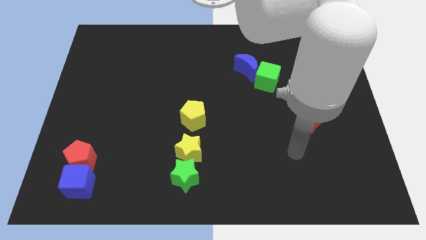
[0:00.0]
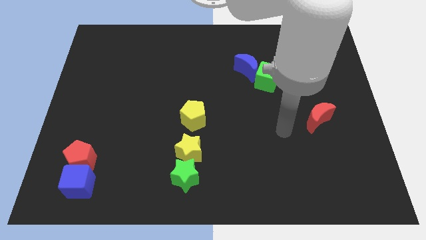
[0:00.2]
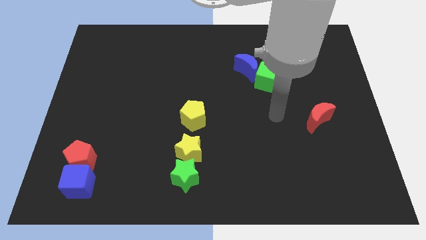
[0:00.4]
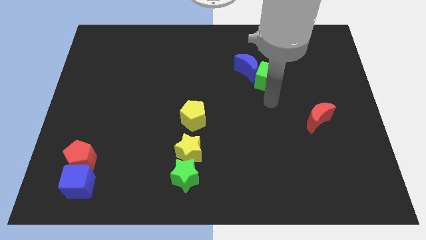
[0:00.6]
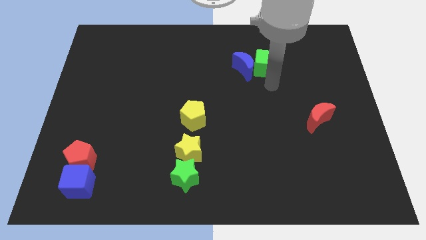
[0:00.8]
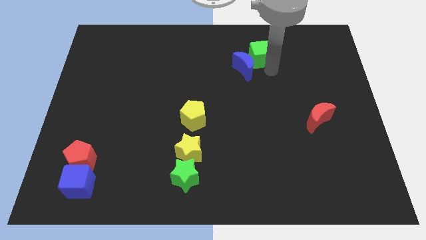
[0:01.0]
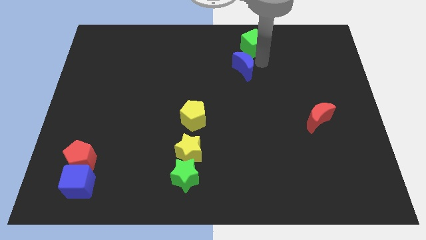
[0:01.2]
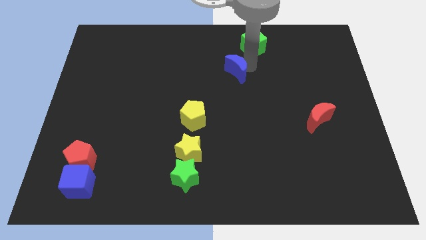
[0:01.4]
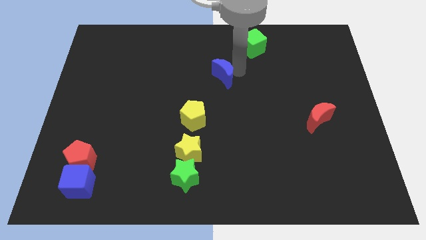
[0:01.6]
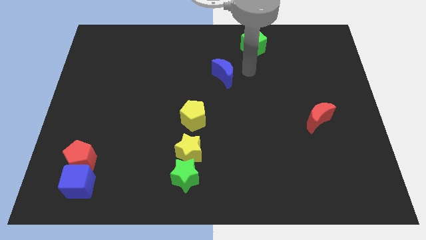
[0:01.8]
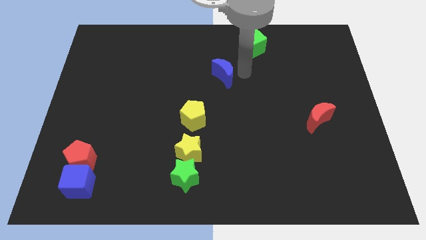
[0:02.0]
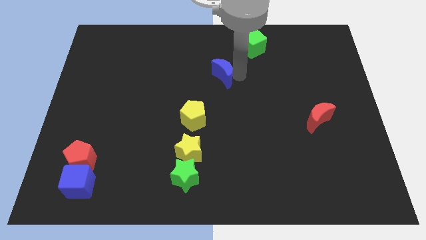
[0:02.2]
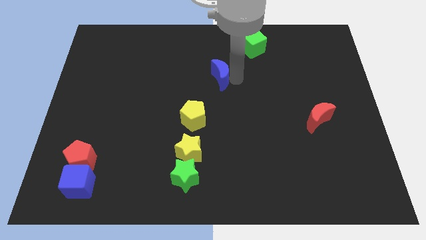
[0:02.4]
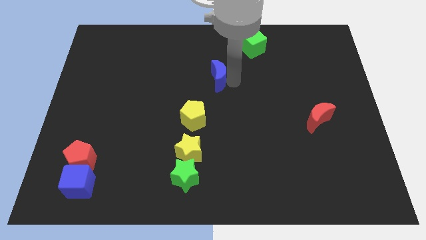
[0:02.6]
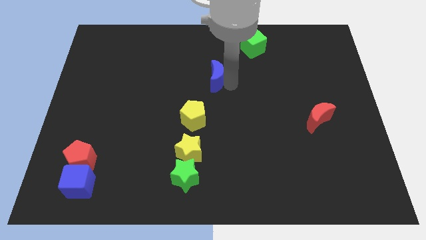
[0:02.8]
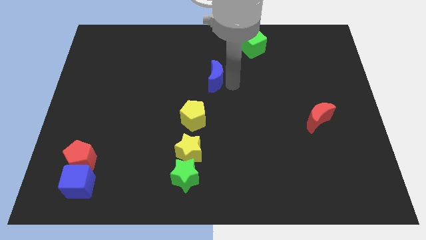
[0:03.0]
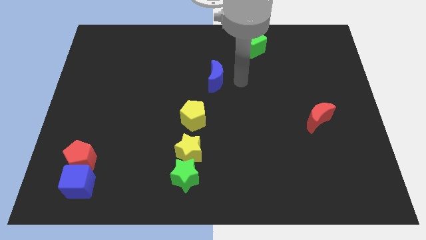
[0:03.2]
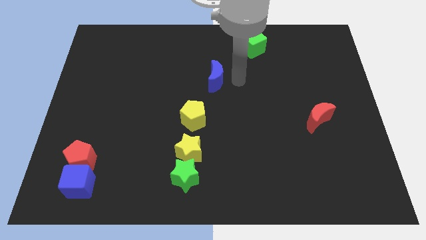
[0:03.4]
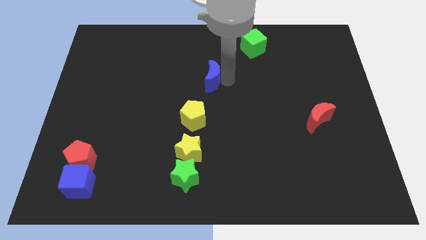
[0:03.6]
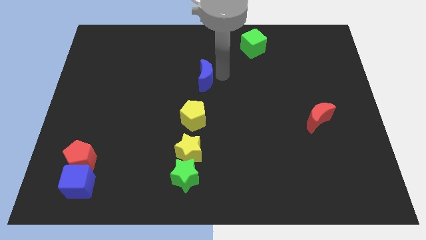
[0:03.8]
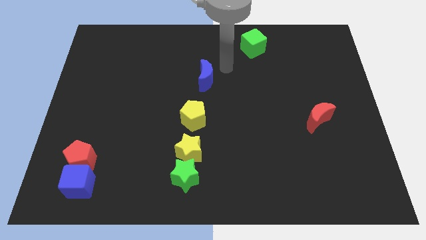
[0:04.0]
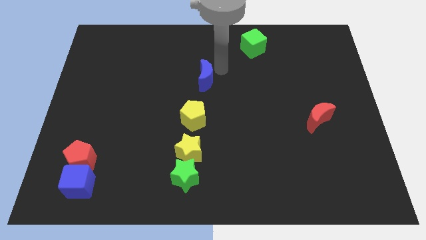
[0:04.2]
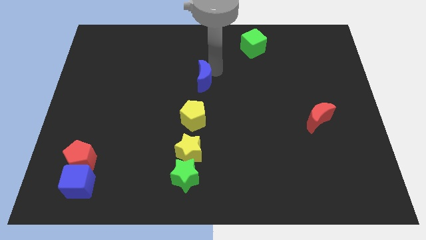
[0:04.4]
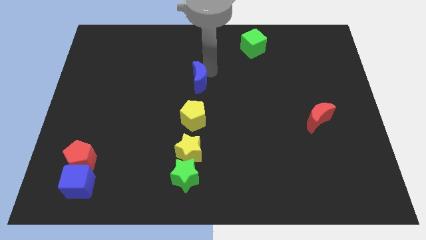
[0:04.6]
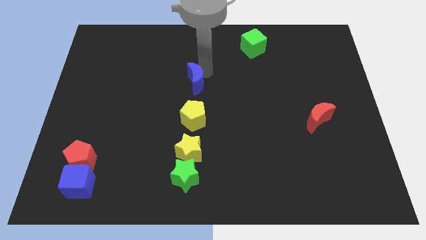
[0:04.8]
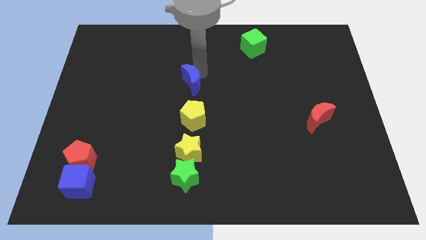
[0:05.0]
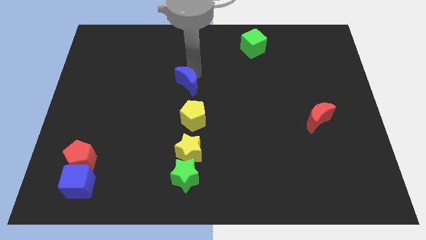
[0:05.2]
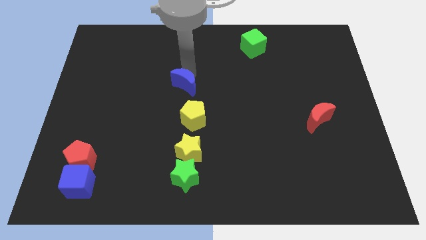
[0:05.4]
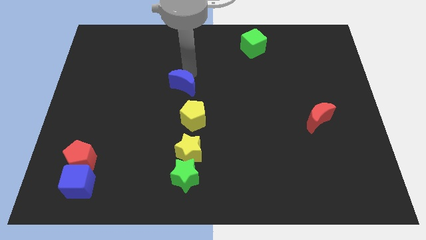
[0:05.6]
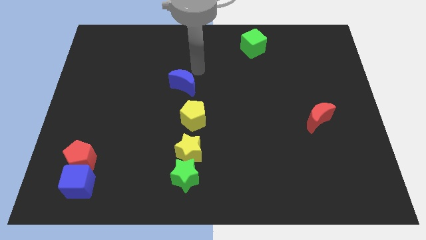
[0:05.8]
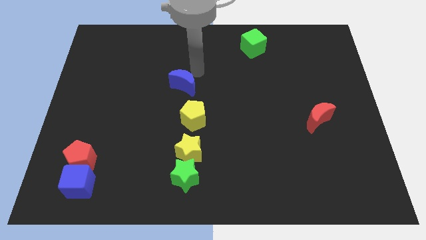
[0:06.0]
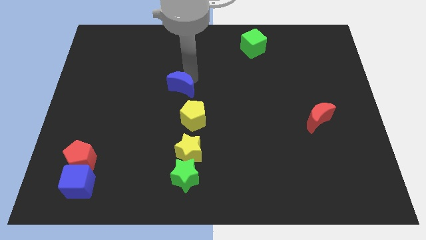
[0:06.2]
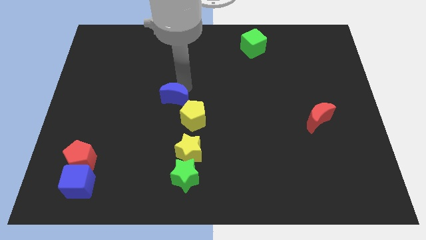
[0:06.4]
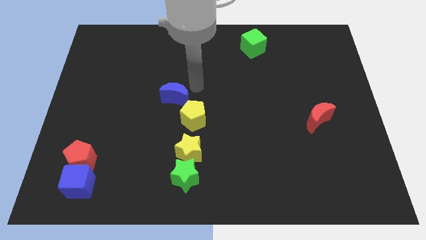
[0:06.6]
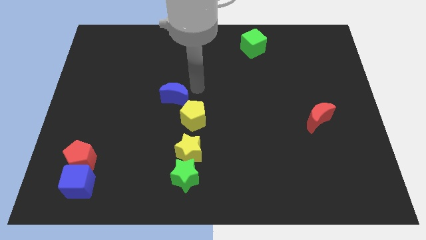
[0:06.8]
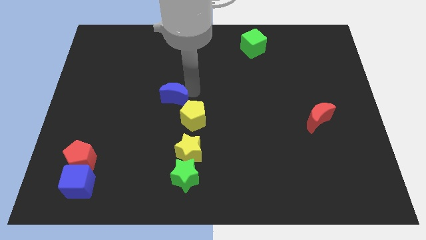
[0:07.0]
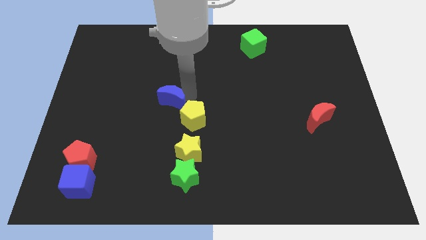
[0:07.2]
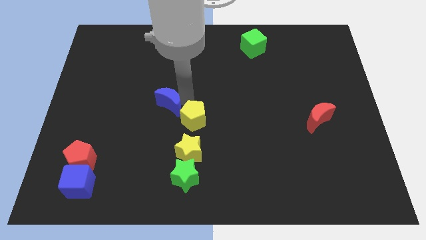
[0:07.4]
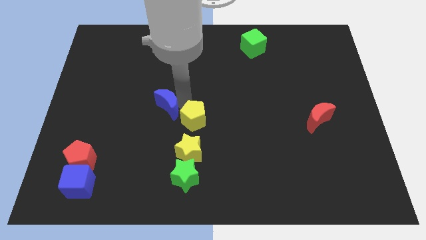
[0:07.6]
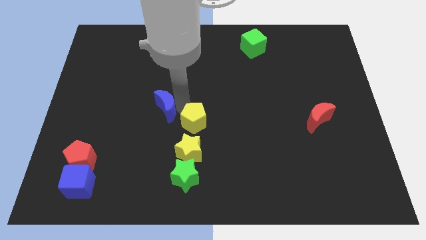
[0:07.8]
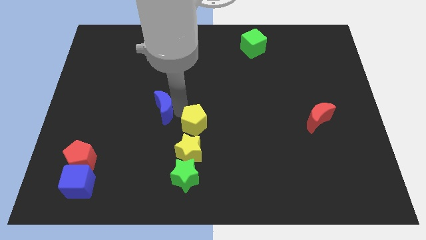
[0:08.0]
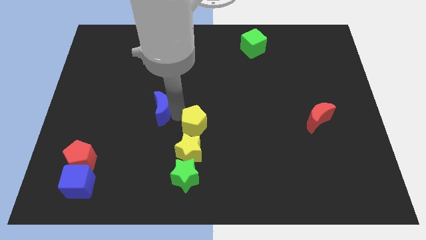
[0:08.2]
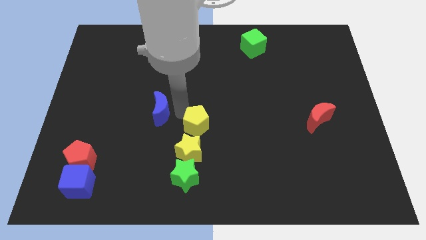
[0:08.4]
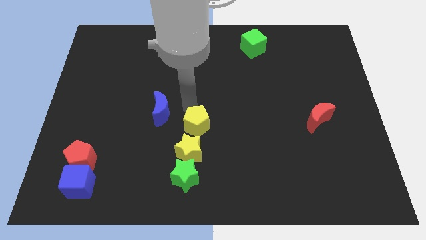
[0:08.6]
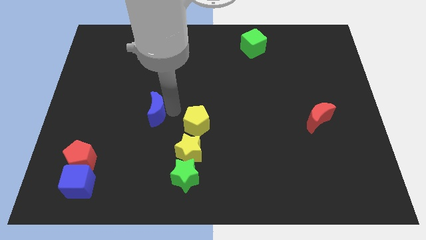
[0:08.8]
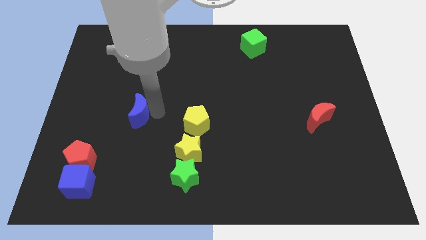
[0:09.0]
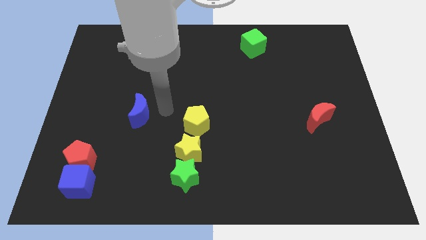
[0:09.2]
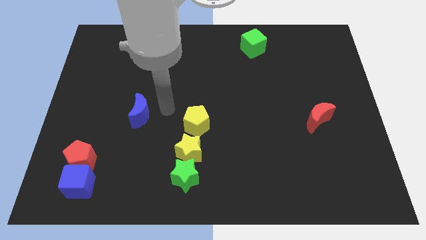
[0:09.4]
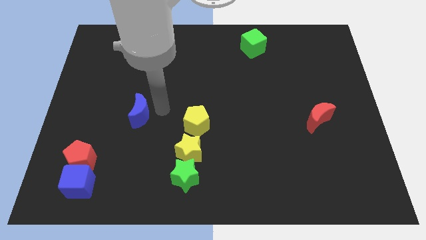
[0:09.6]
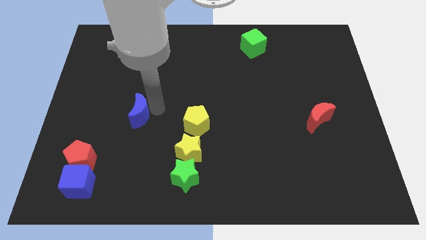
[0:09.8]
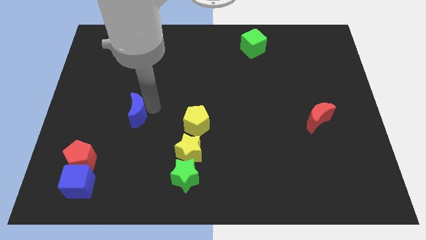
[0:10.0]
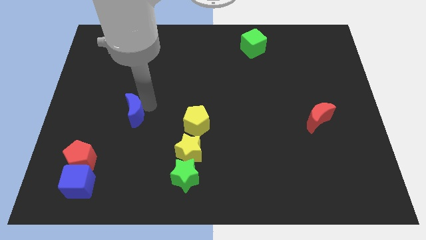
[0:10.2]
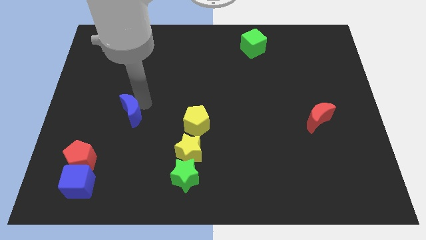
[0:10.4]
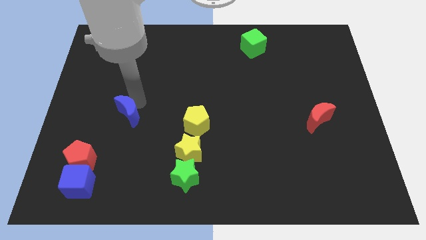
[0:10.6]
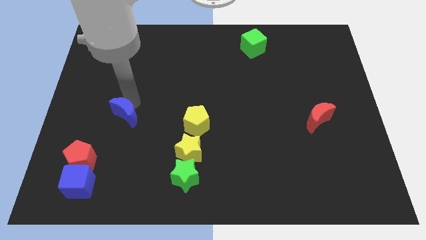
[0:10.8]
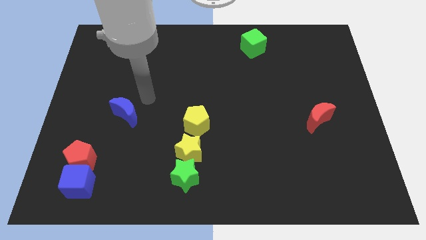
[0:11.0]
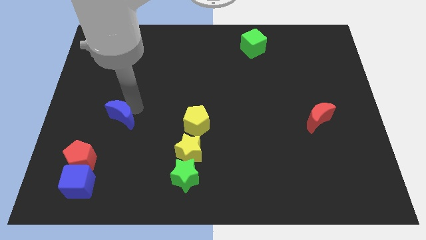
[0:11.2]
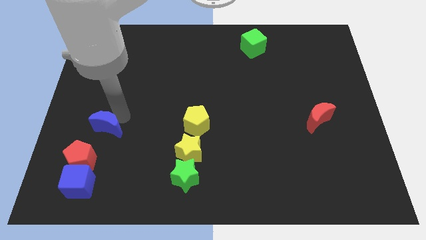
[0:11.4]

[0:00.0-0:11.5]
put the blue moon to the top side of the blue cube

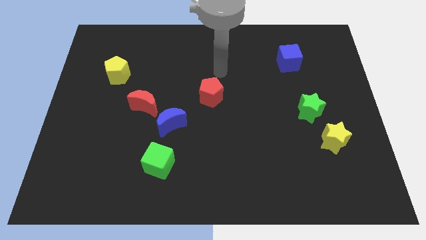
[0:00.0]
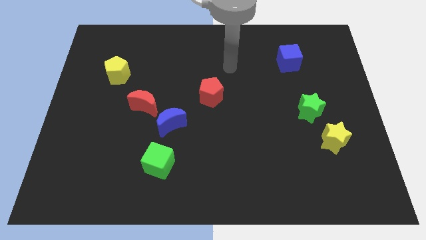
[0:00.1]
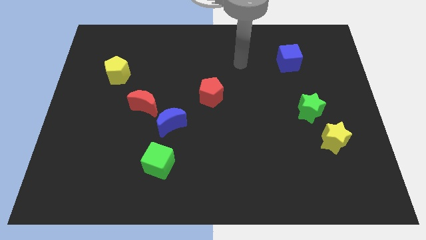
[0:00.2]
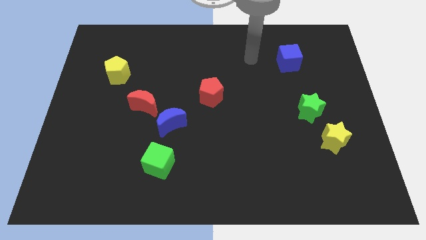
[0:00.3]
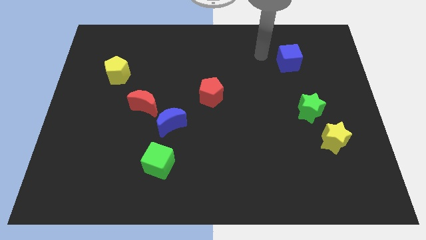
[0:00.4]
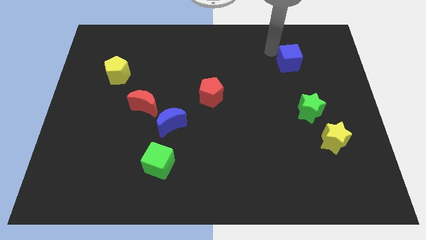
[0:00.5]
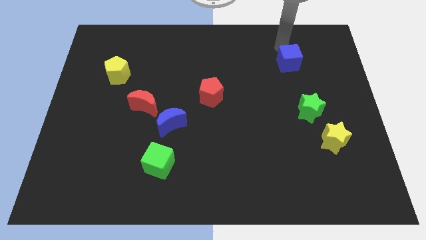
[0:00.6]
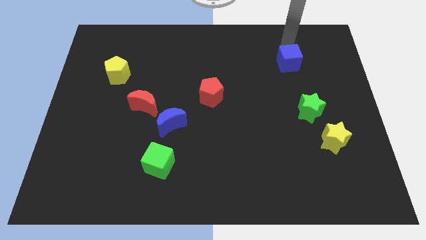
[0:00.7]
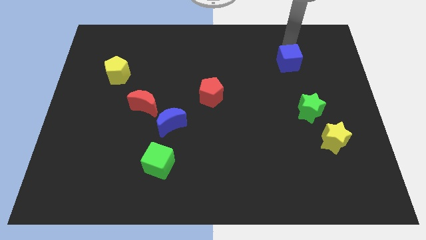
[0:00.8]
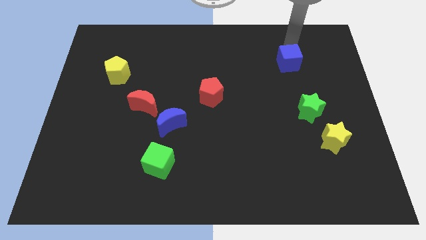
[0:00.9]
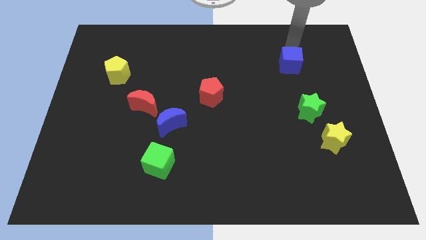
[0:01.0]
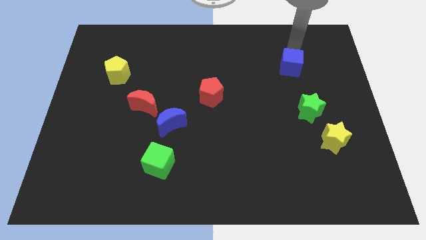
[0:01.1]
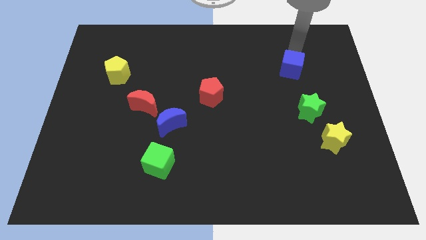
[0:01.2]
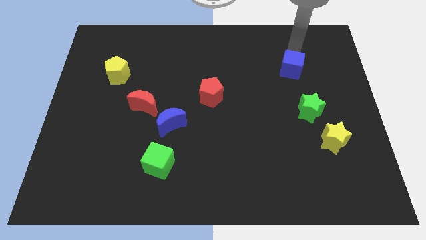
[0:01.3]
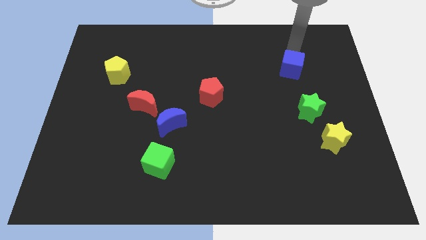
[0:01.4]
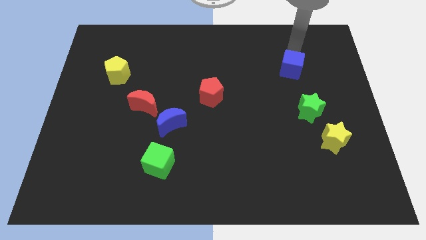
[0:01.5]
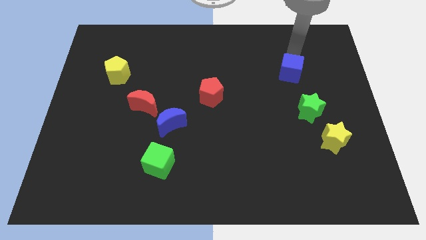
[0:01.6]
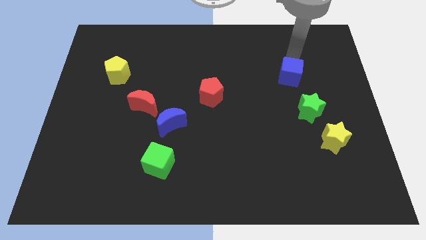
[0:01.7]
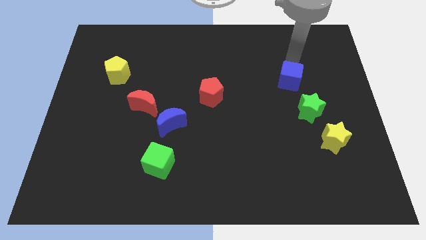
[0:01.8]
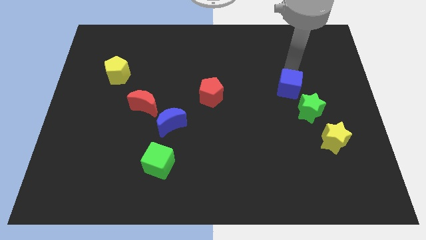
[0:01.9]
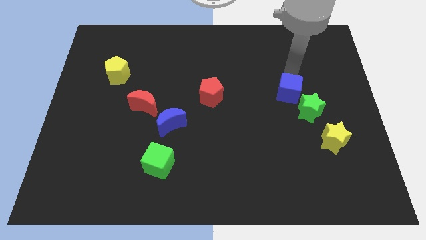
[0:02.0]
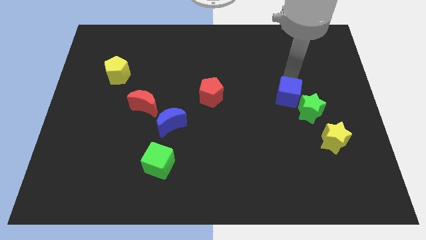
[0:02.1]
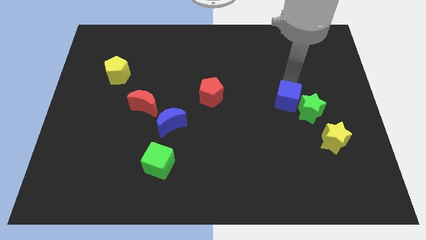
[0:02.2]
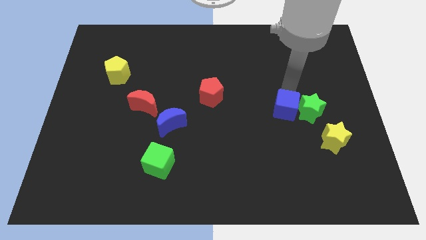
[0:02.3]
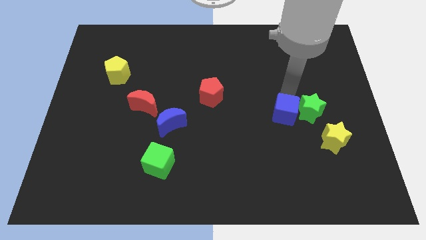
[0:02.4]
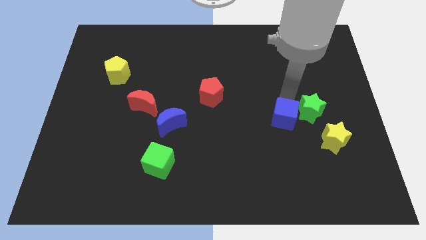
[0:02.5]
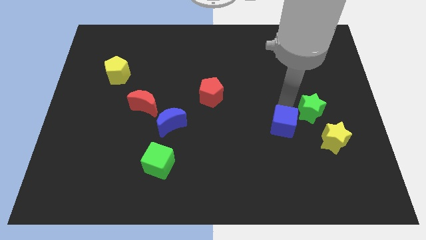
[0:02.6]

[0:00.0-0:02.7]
slide the blue cube to the left side of the yellow star
